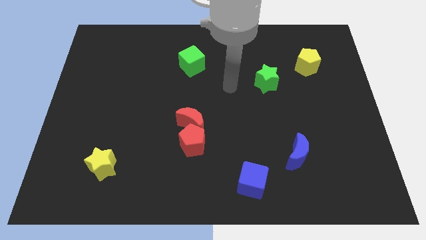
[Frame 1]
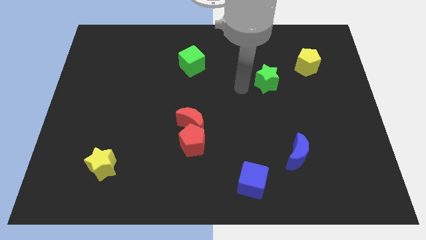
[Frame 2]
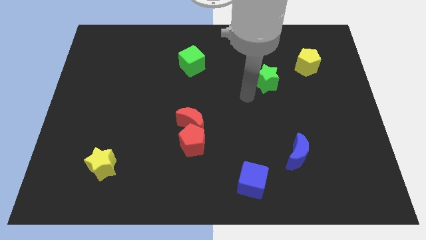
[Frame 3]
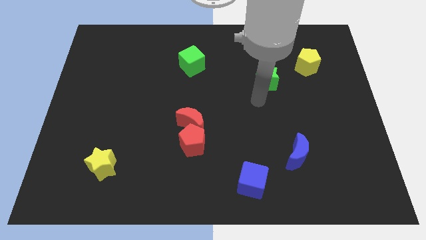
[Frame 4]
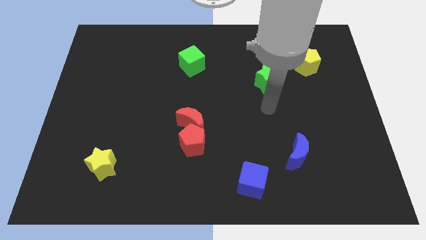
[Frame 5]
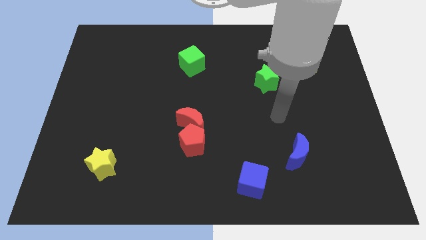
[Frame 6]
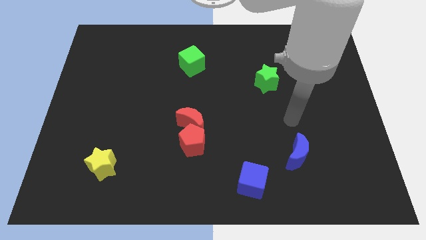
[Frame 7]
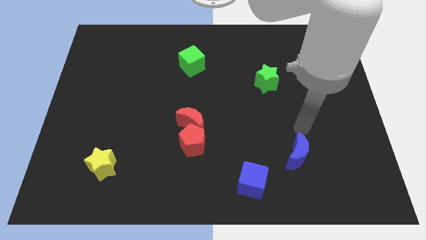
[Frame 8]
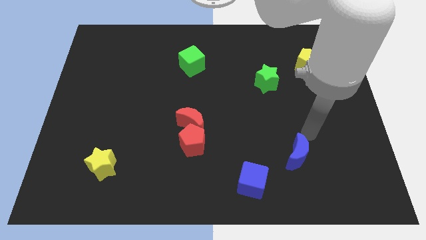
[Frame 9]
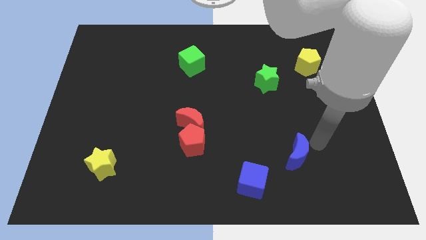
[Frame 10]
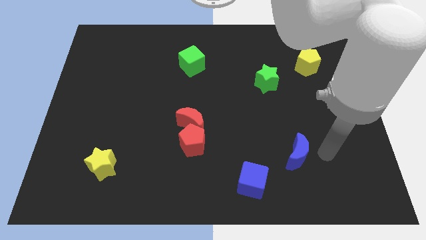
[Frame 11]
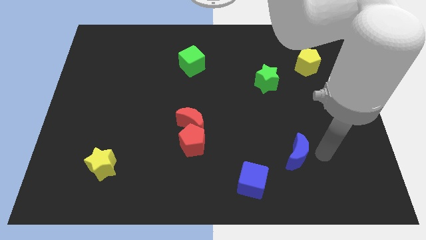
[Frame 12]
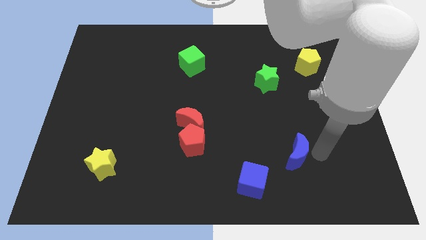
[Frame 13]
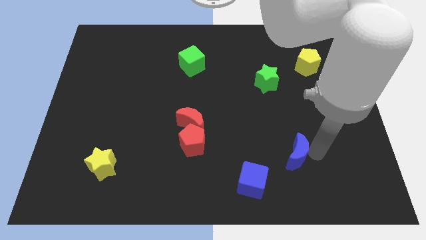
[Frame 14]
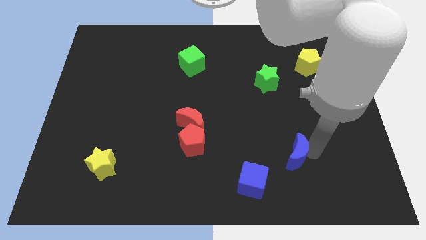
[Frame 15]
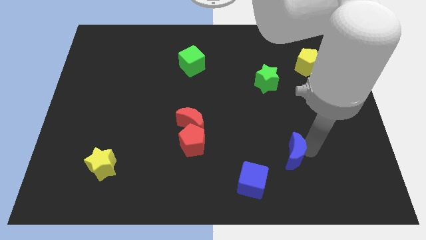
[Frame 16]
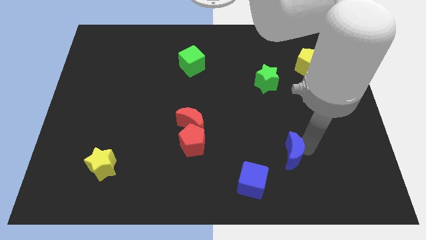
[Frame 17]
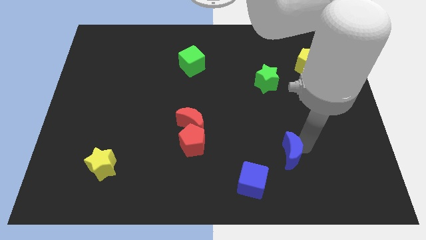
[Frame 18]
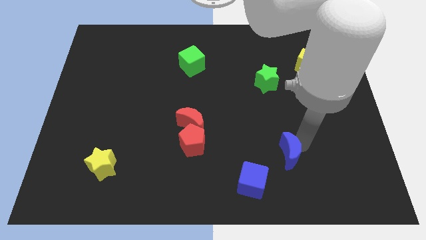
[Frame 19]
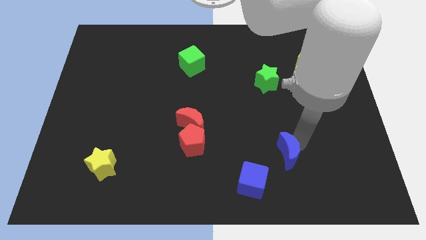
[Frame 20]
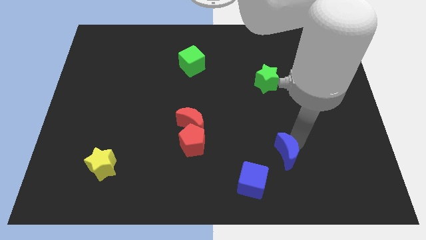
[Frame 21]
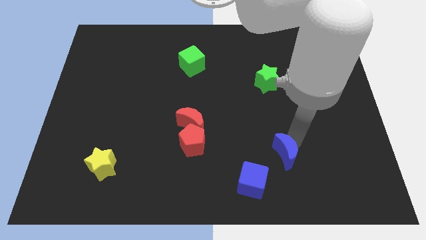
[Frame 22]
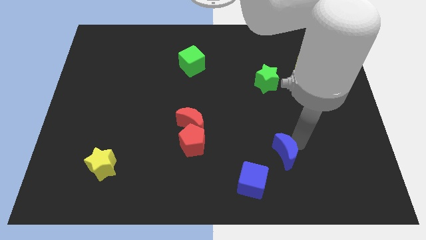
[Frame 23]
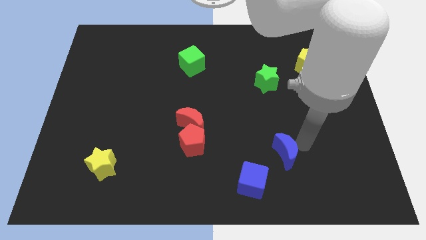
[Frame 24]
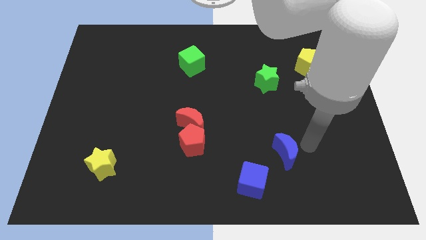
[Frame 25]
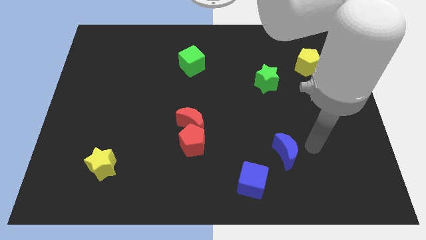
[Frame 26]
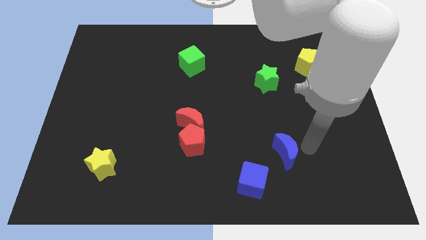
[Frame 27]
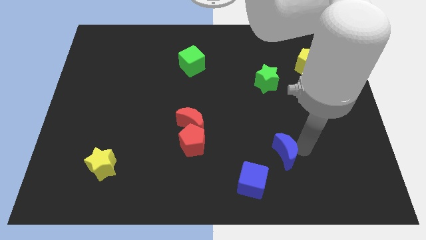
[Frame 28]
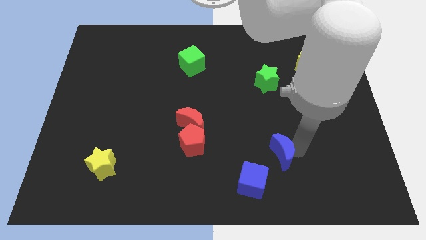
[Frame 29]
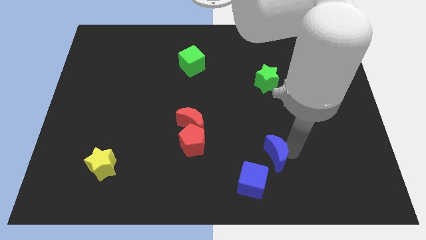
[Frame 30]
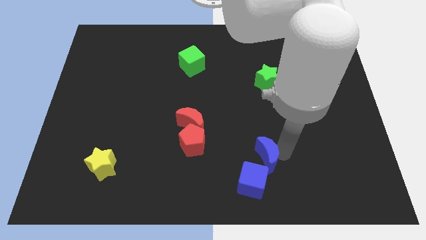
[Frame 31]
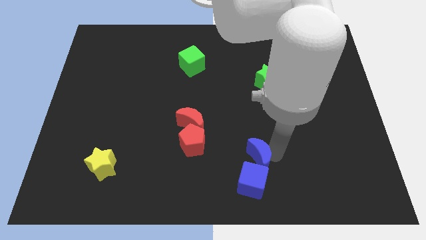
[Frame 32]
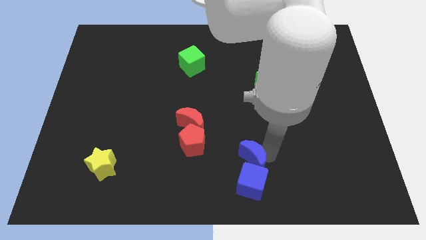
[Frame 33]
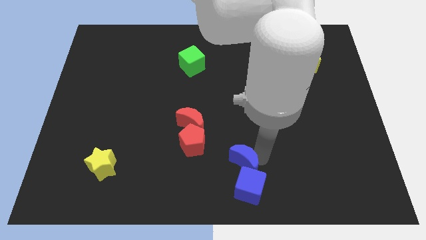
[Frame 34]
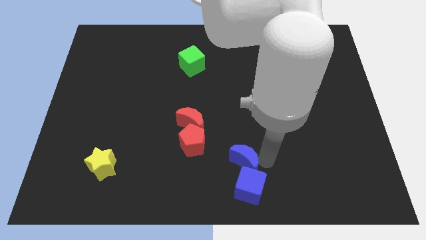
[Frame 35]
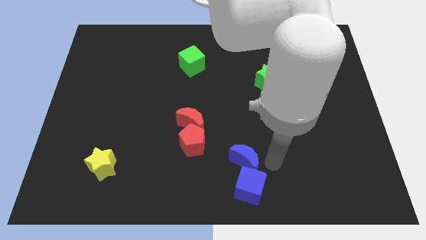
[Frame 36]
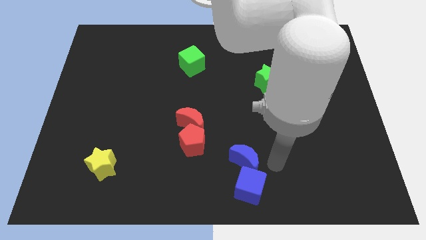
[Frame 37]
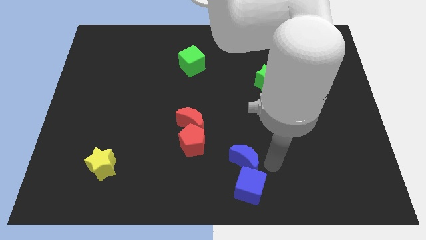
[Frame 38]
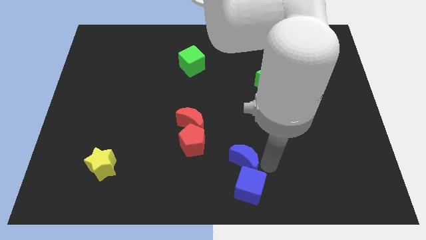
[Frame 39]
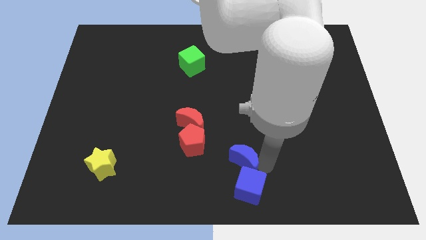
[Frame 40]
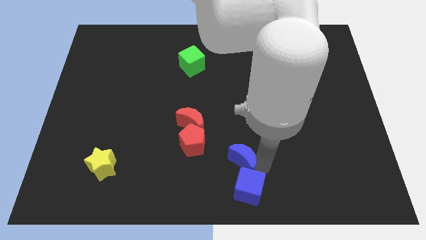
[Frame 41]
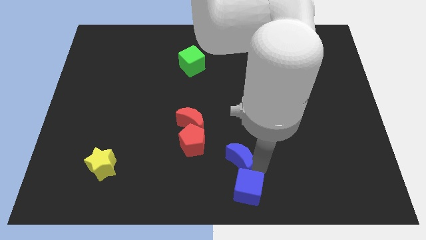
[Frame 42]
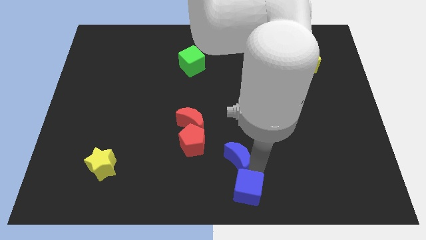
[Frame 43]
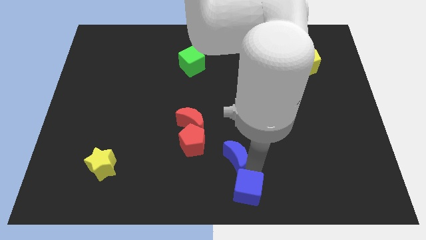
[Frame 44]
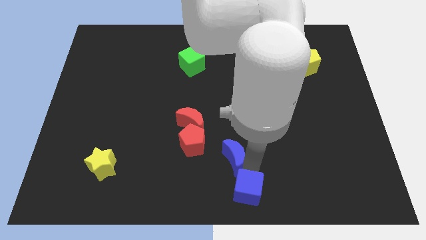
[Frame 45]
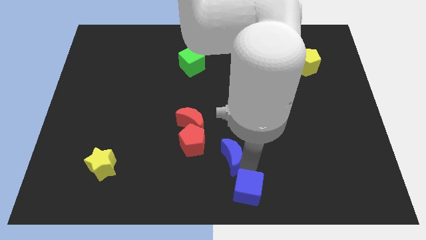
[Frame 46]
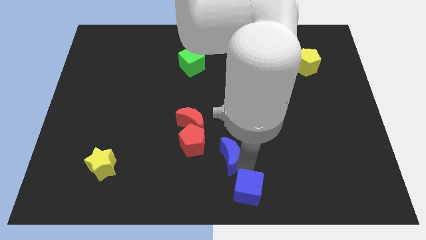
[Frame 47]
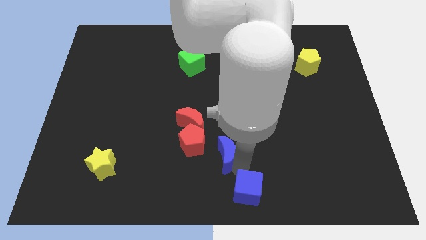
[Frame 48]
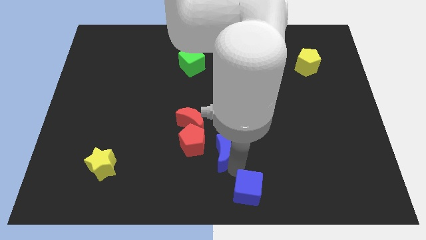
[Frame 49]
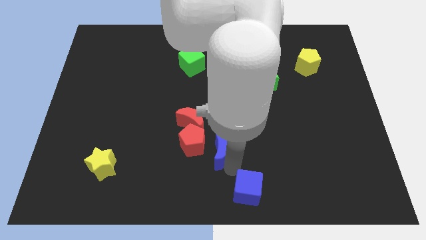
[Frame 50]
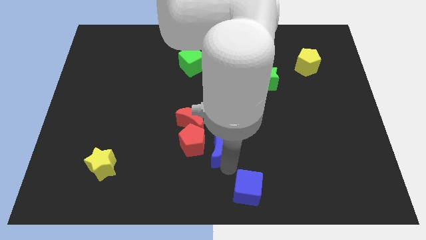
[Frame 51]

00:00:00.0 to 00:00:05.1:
slide the blue moon to the red pentagon

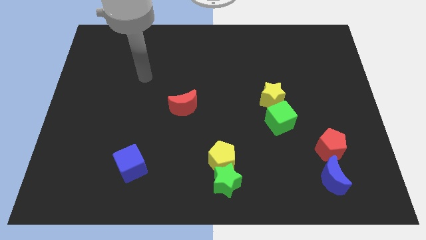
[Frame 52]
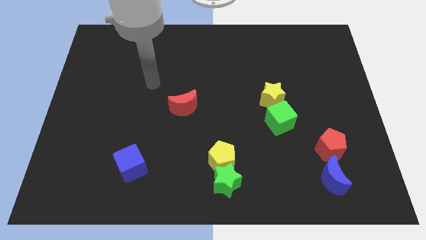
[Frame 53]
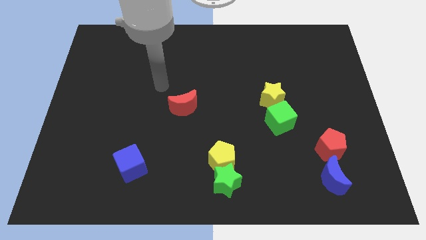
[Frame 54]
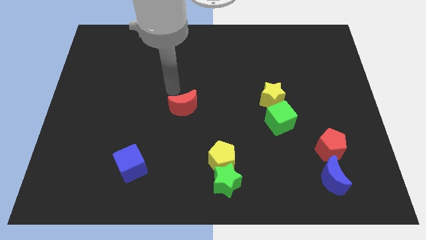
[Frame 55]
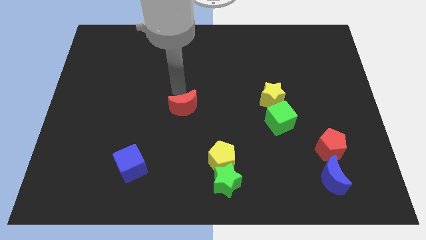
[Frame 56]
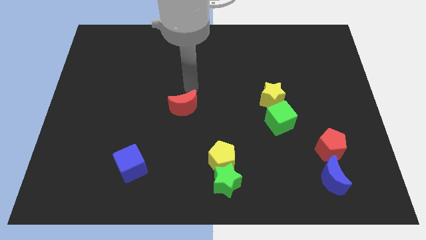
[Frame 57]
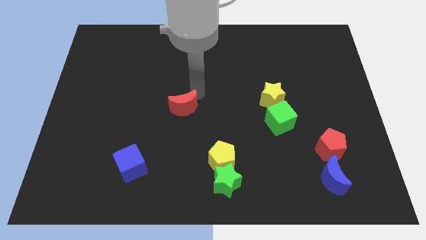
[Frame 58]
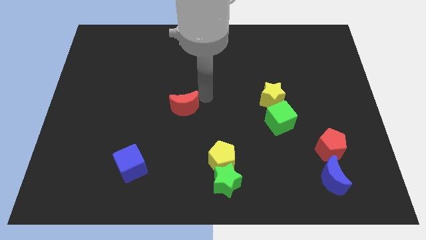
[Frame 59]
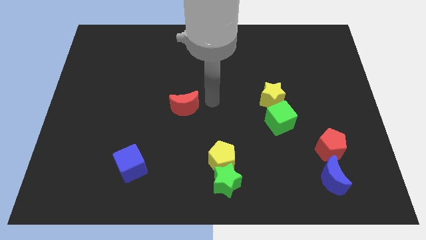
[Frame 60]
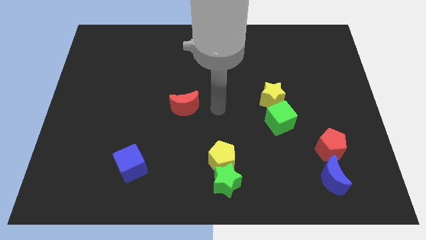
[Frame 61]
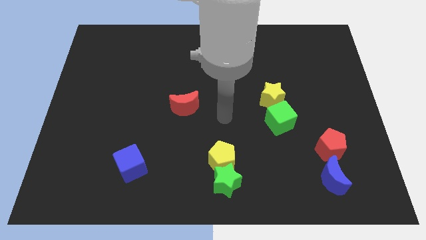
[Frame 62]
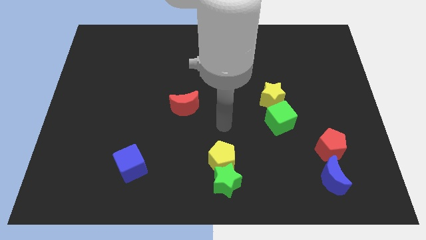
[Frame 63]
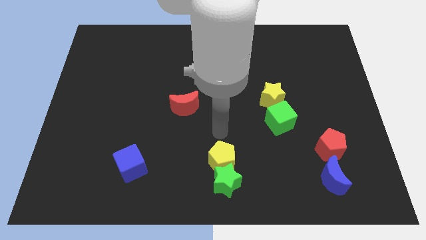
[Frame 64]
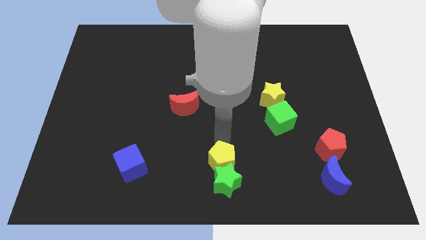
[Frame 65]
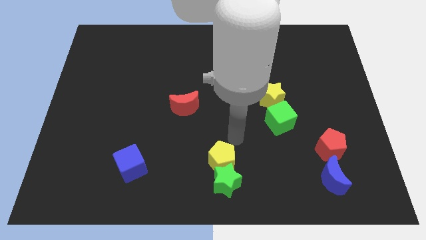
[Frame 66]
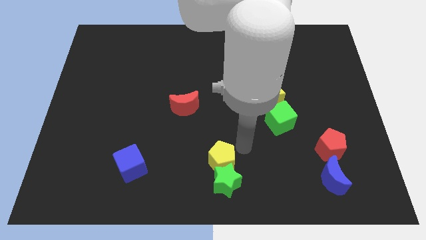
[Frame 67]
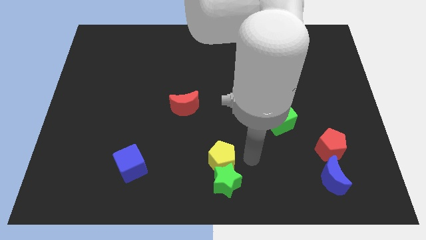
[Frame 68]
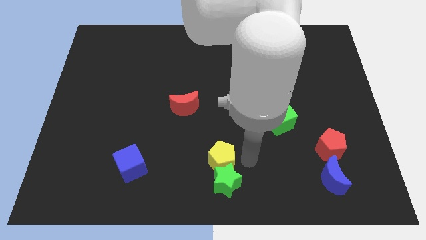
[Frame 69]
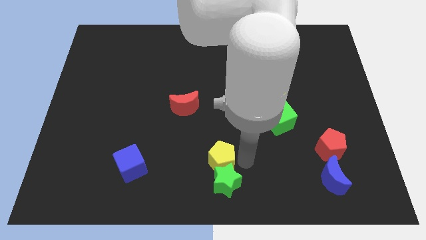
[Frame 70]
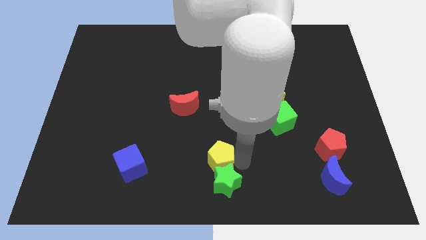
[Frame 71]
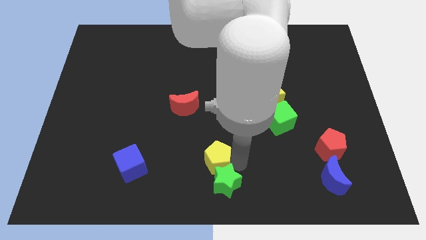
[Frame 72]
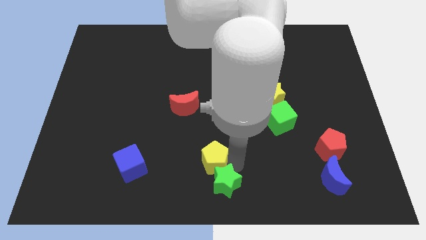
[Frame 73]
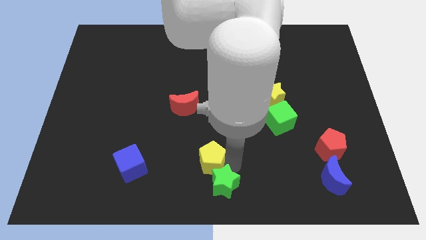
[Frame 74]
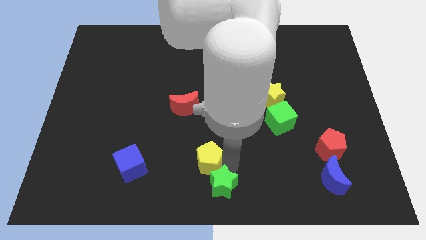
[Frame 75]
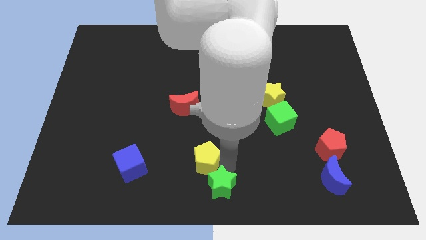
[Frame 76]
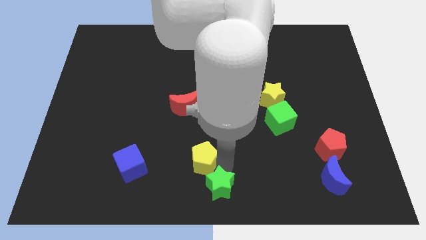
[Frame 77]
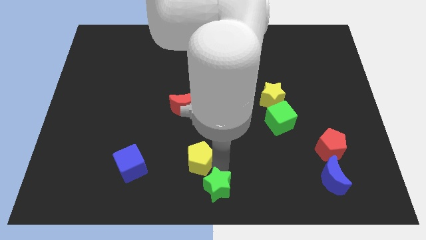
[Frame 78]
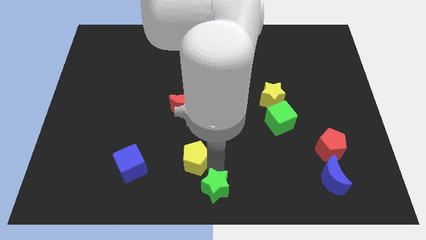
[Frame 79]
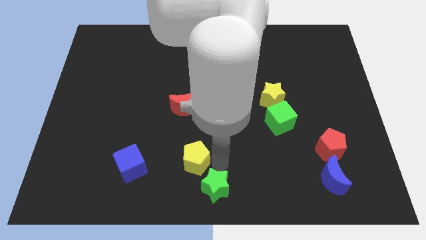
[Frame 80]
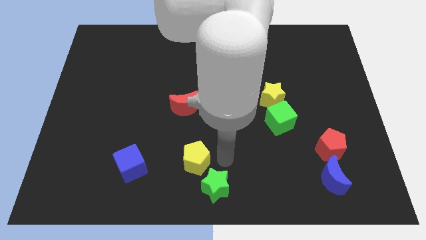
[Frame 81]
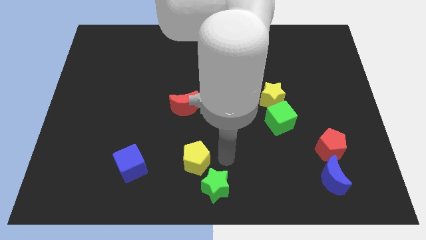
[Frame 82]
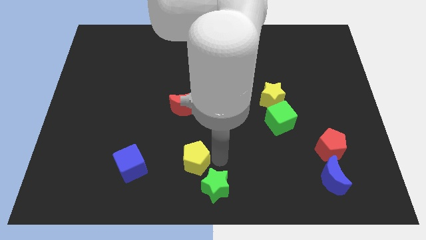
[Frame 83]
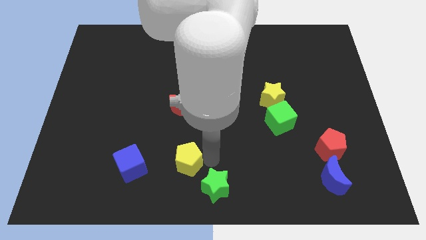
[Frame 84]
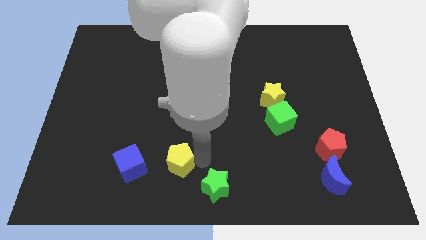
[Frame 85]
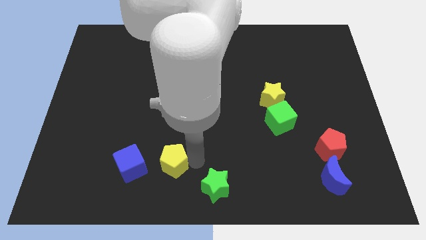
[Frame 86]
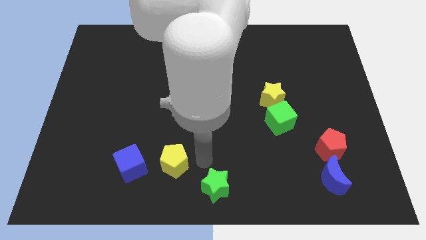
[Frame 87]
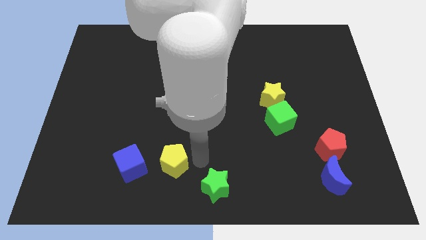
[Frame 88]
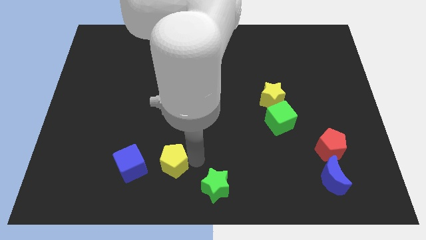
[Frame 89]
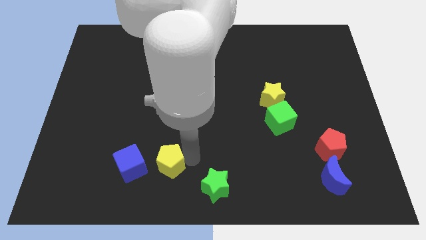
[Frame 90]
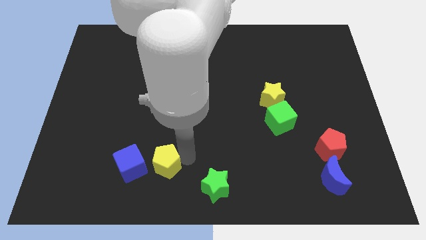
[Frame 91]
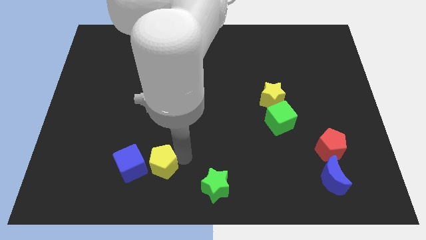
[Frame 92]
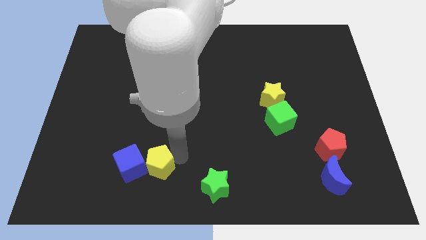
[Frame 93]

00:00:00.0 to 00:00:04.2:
push the yellow pentagon next to the blue cube
